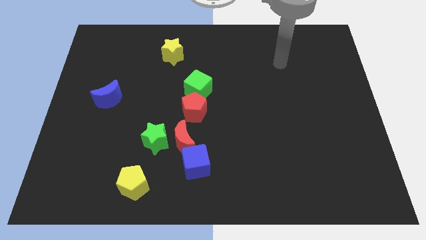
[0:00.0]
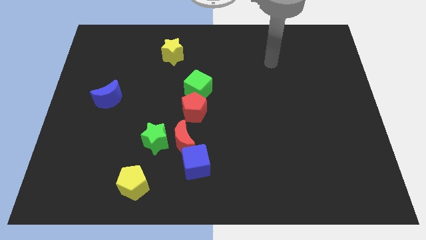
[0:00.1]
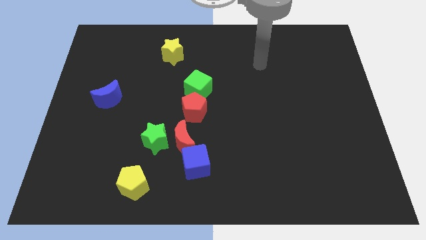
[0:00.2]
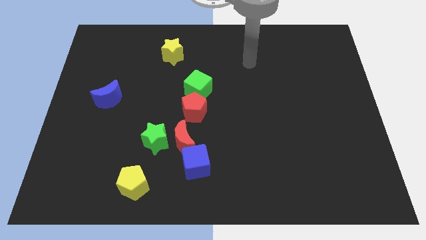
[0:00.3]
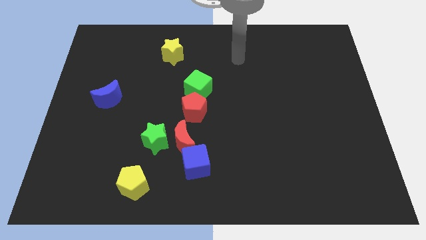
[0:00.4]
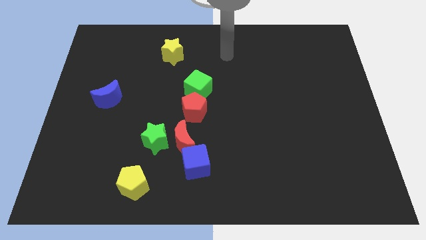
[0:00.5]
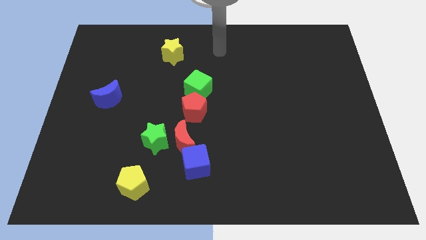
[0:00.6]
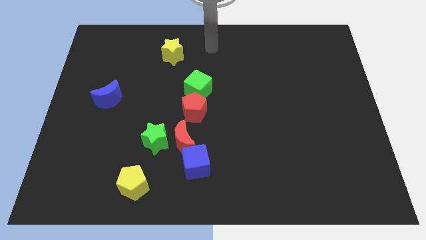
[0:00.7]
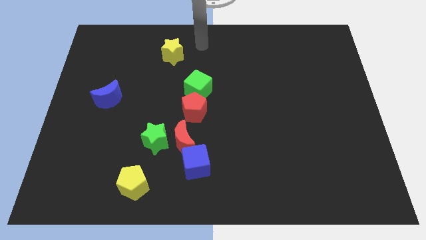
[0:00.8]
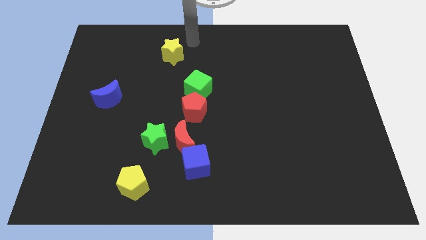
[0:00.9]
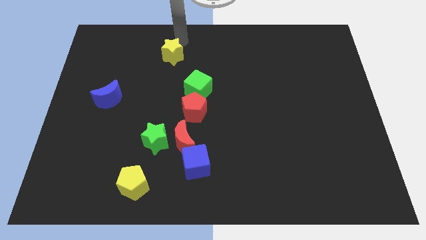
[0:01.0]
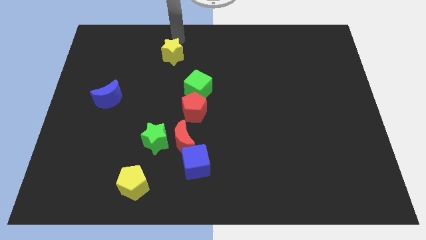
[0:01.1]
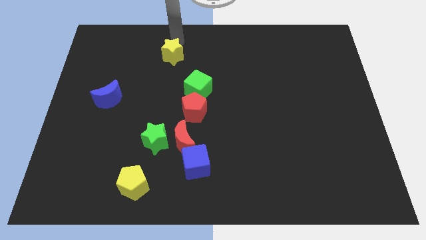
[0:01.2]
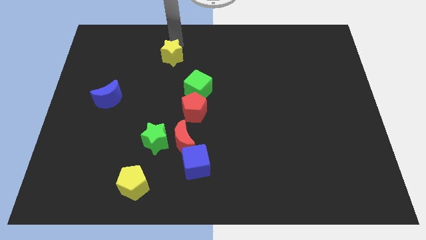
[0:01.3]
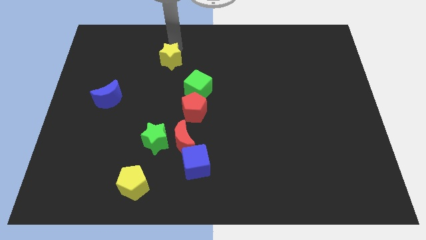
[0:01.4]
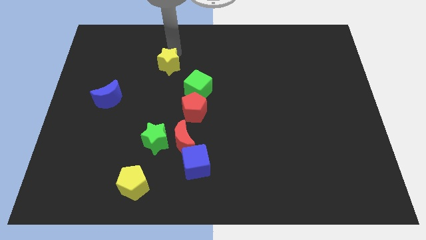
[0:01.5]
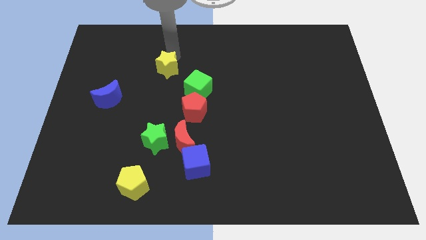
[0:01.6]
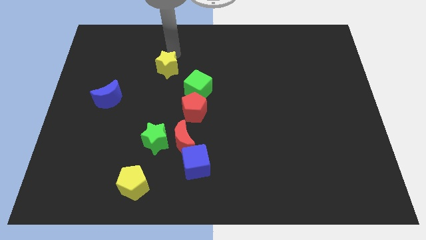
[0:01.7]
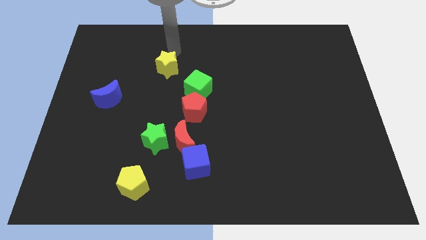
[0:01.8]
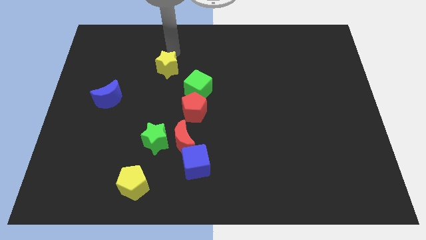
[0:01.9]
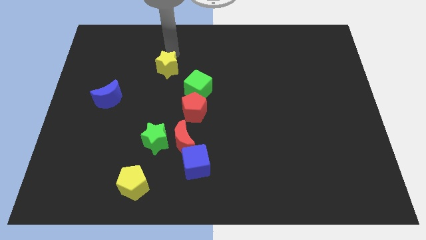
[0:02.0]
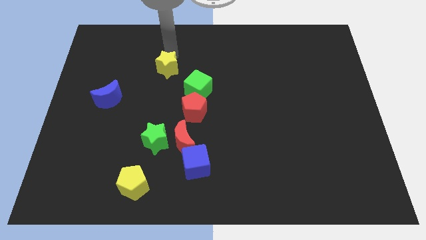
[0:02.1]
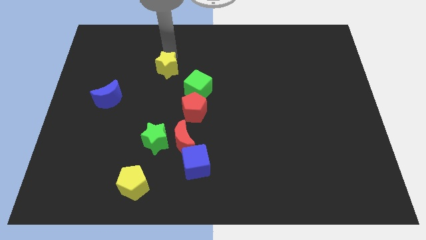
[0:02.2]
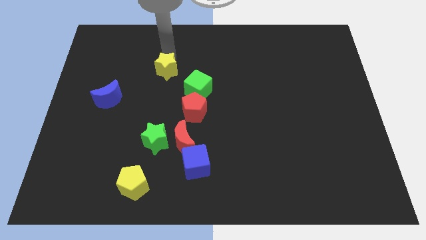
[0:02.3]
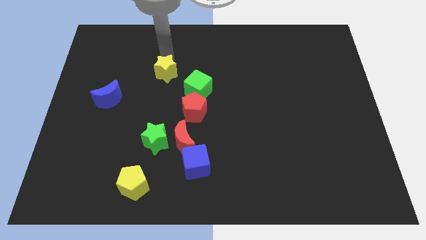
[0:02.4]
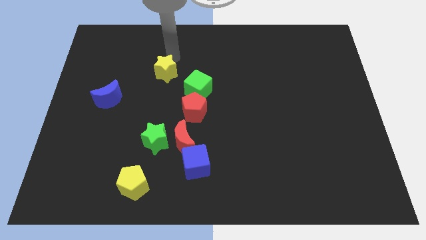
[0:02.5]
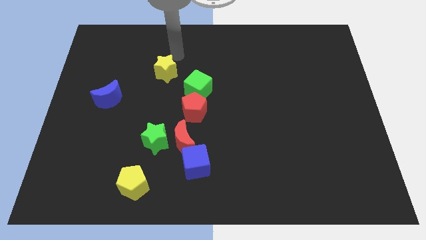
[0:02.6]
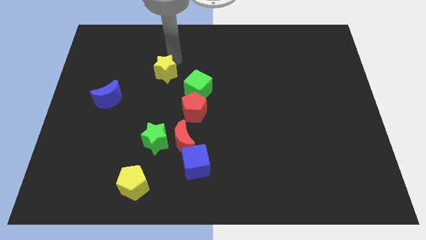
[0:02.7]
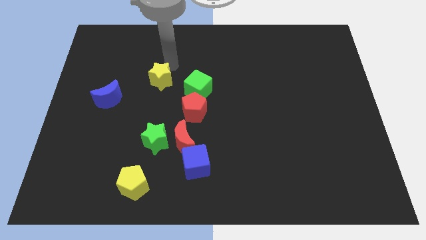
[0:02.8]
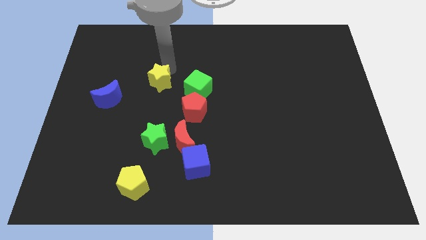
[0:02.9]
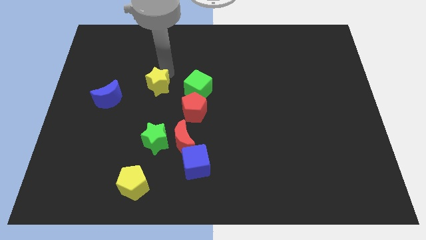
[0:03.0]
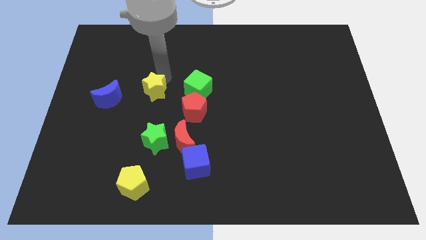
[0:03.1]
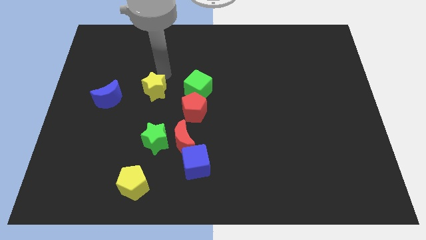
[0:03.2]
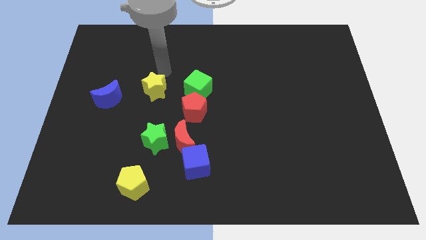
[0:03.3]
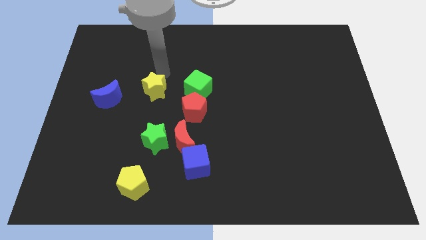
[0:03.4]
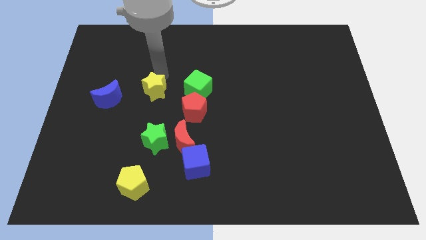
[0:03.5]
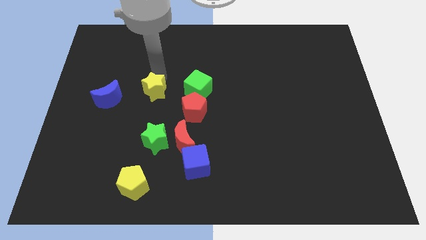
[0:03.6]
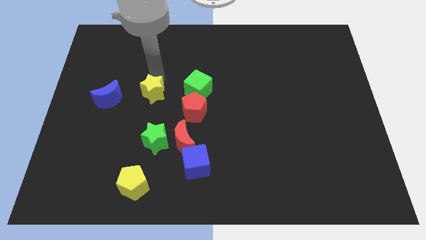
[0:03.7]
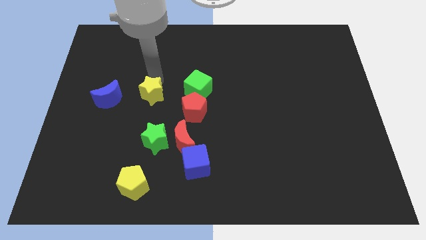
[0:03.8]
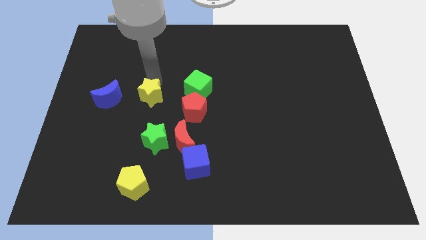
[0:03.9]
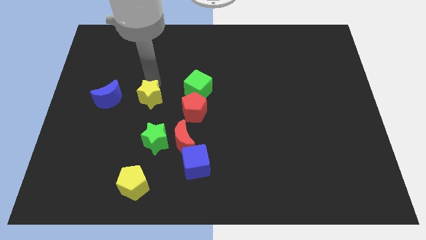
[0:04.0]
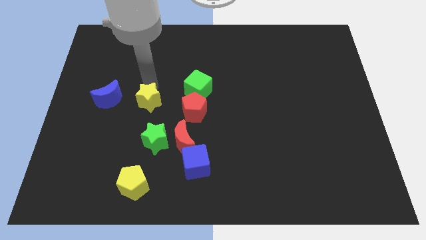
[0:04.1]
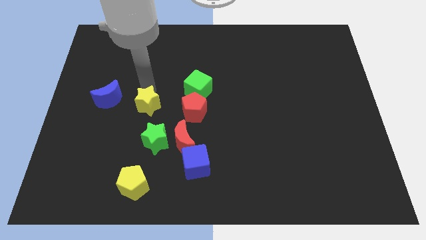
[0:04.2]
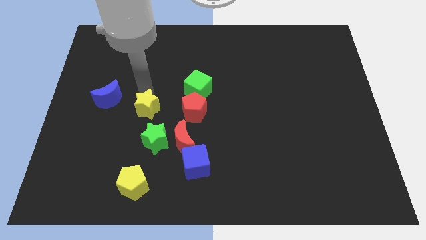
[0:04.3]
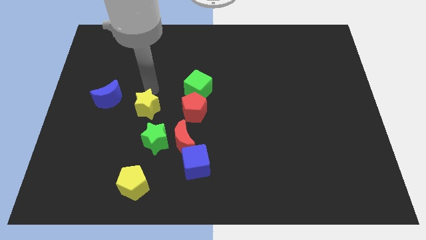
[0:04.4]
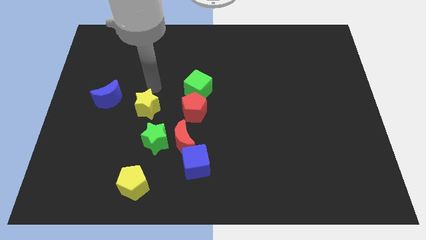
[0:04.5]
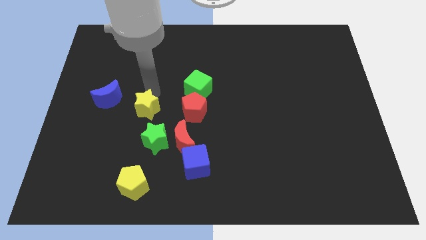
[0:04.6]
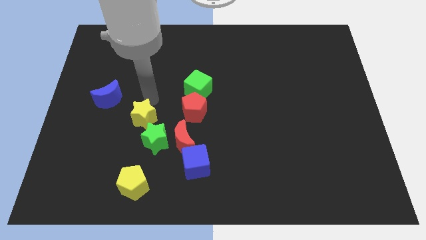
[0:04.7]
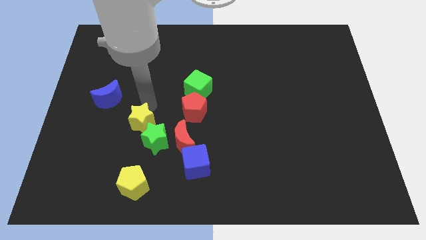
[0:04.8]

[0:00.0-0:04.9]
push the yellow star to the top side of the yellow pentagon

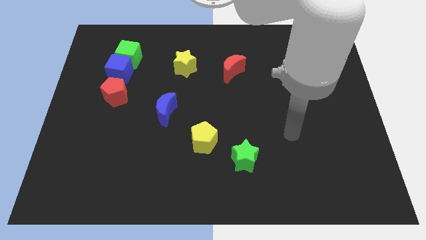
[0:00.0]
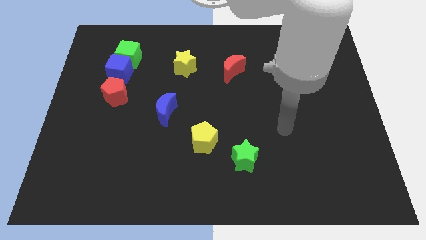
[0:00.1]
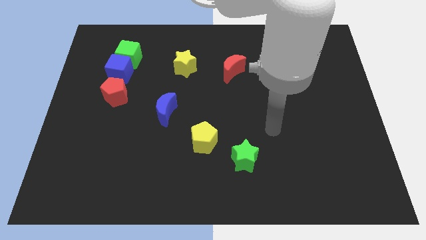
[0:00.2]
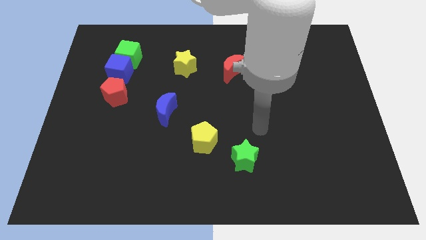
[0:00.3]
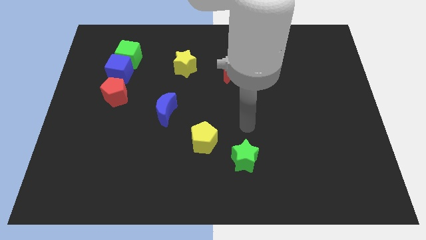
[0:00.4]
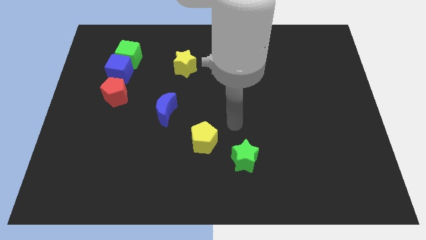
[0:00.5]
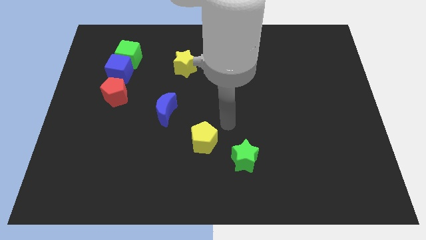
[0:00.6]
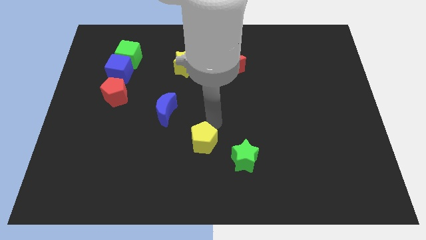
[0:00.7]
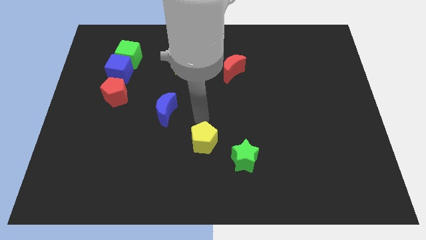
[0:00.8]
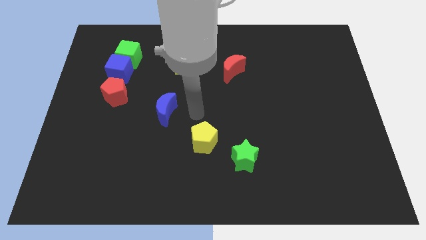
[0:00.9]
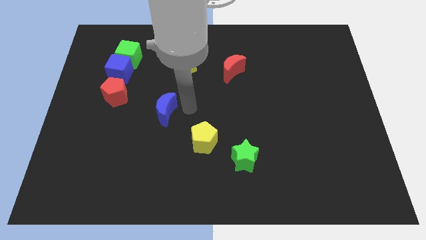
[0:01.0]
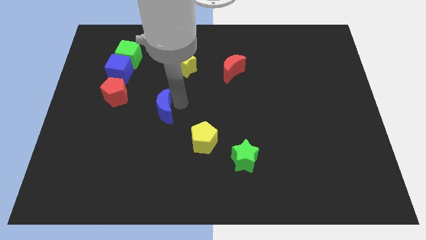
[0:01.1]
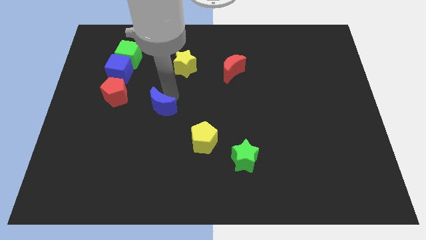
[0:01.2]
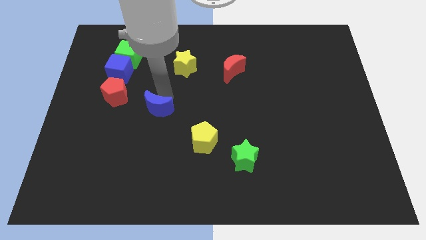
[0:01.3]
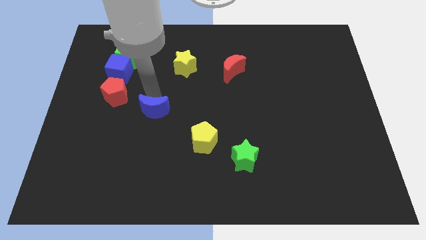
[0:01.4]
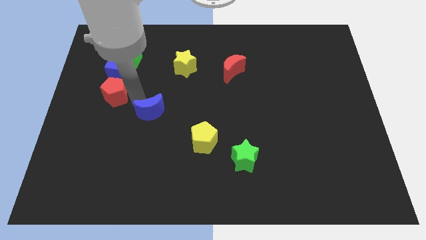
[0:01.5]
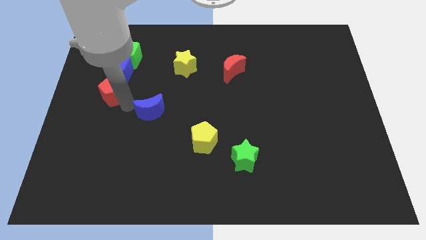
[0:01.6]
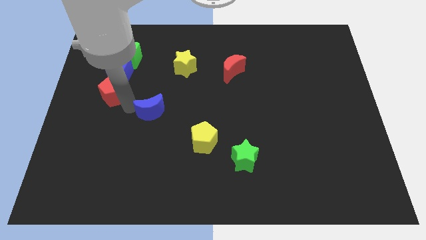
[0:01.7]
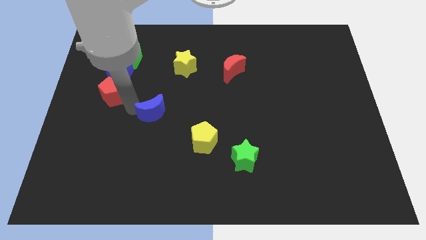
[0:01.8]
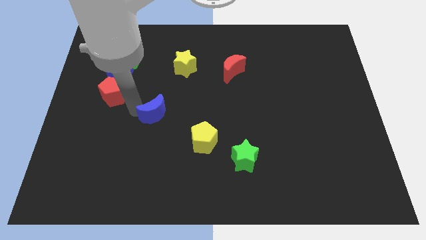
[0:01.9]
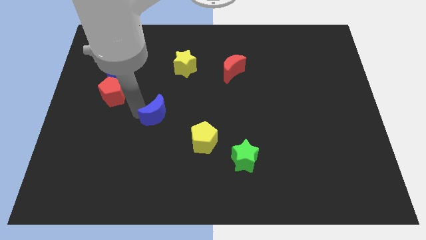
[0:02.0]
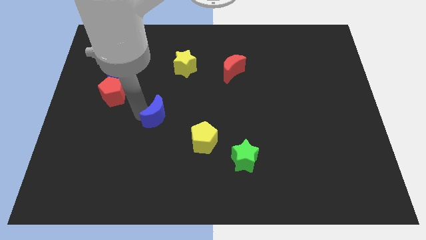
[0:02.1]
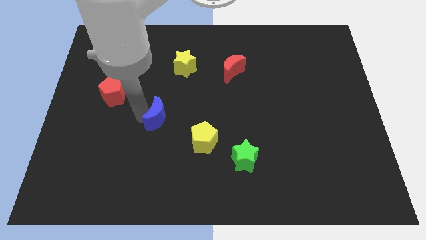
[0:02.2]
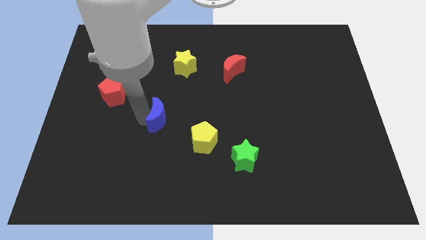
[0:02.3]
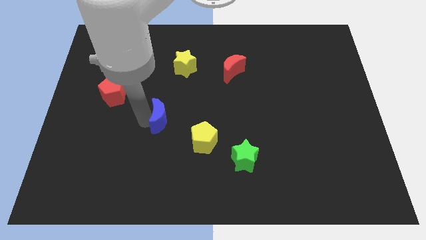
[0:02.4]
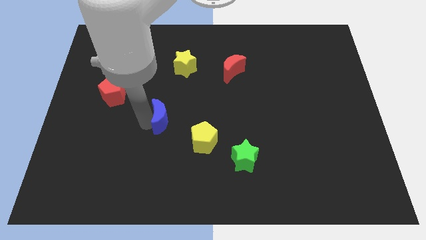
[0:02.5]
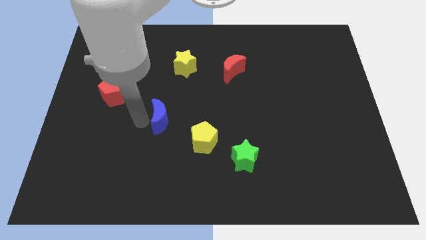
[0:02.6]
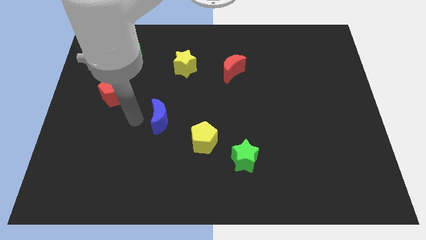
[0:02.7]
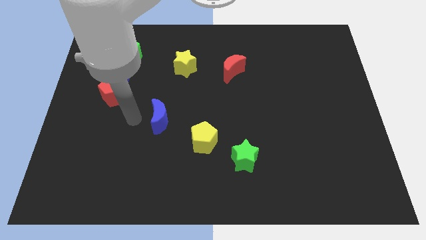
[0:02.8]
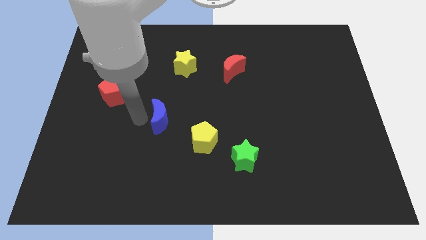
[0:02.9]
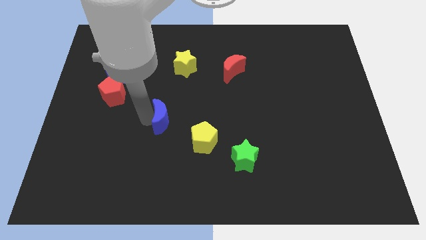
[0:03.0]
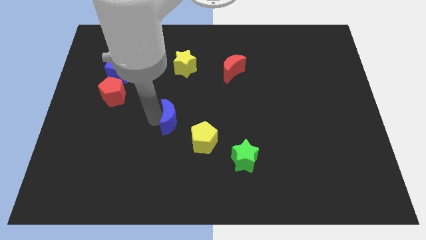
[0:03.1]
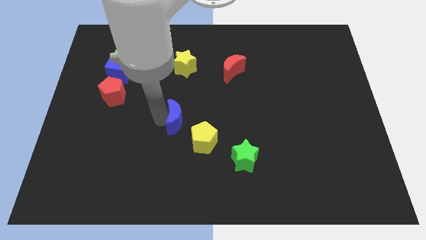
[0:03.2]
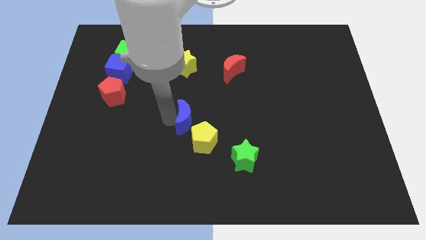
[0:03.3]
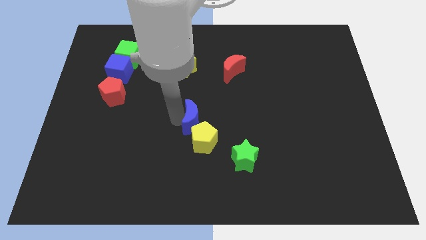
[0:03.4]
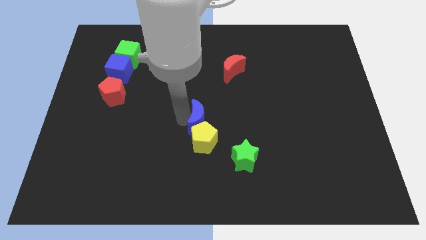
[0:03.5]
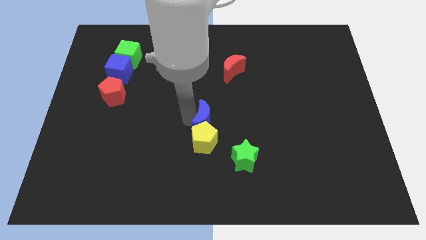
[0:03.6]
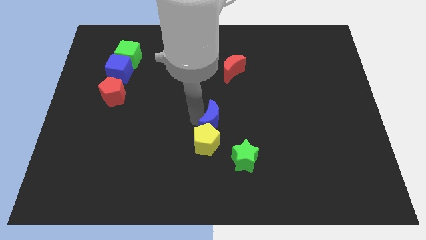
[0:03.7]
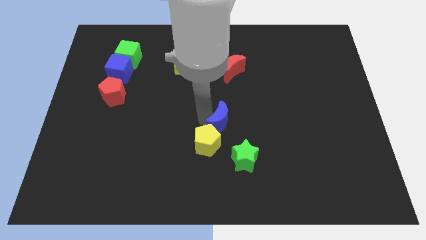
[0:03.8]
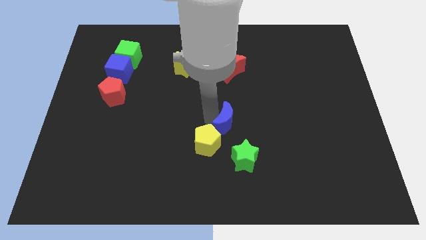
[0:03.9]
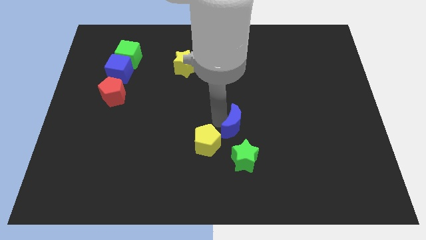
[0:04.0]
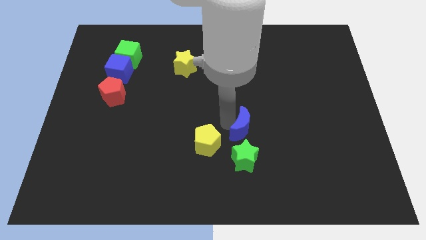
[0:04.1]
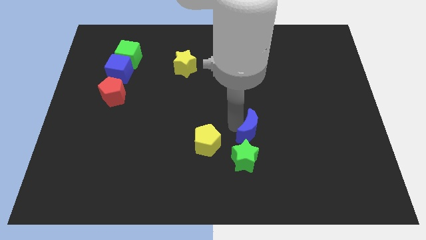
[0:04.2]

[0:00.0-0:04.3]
move the blue moon diagonally up and to the right of the green star
